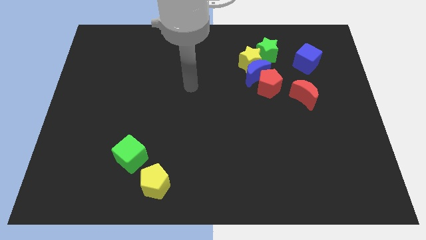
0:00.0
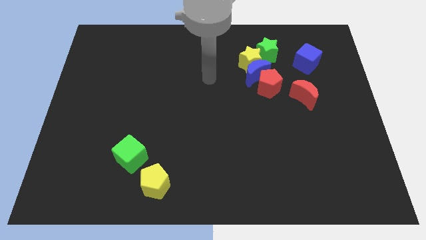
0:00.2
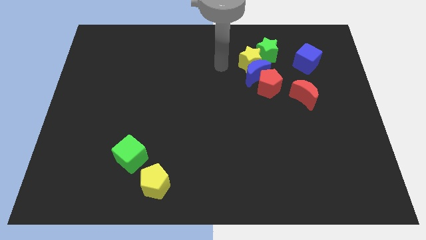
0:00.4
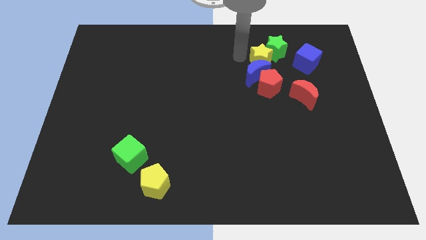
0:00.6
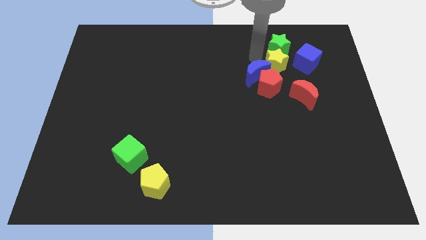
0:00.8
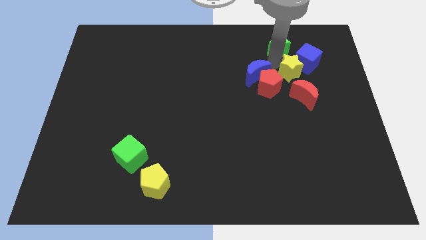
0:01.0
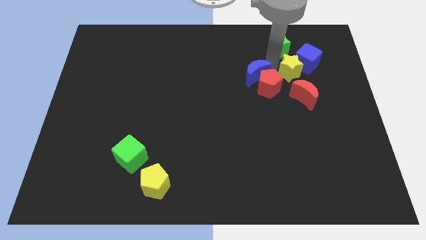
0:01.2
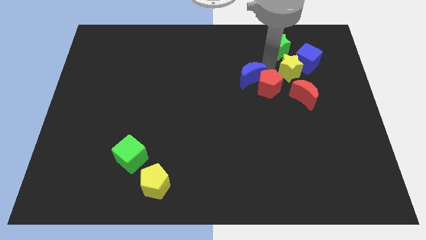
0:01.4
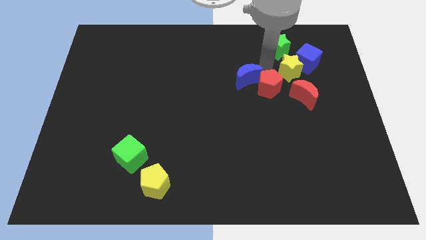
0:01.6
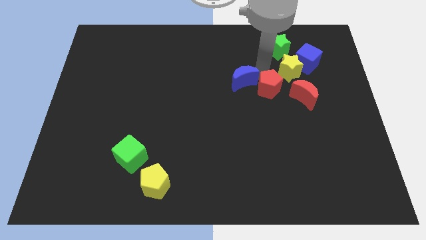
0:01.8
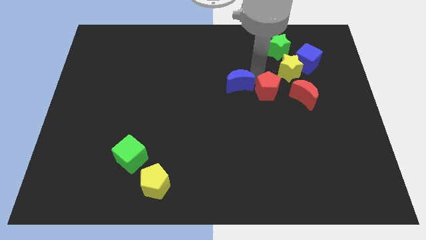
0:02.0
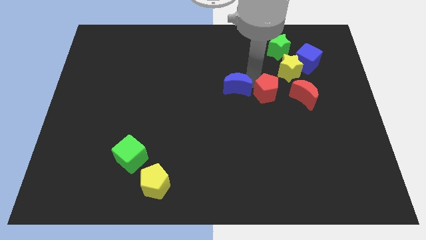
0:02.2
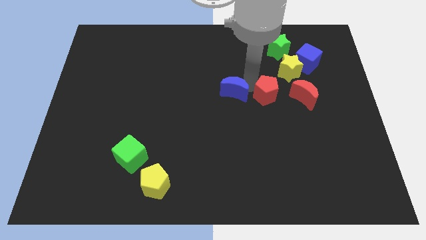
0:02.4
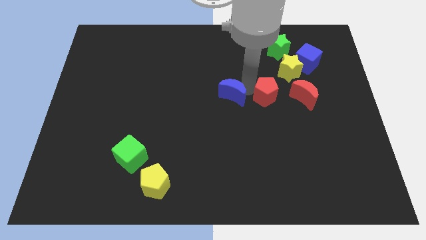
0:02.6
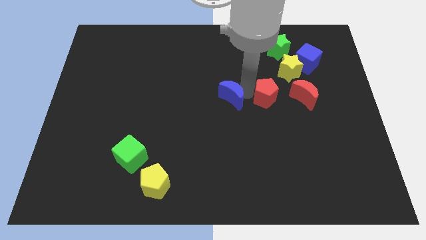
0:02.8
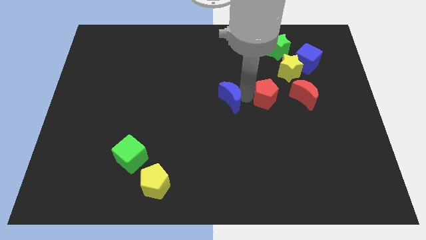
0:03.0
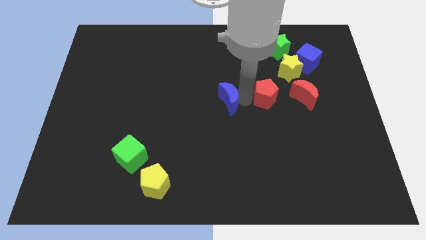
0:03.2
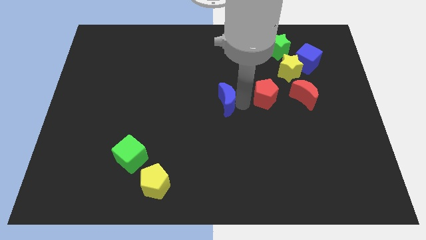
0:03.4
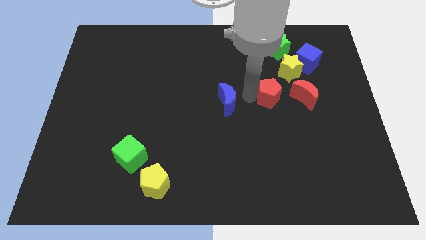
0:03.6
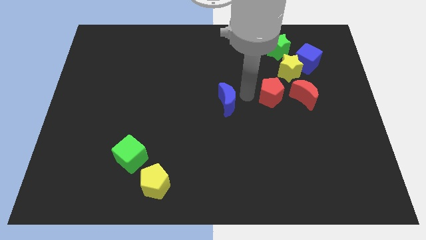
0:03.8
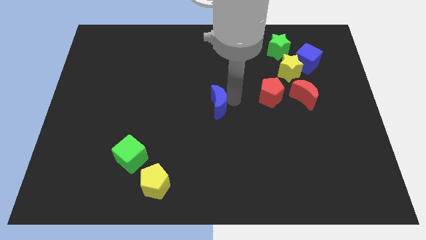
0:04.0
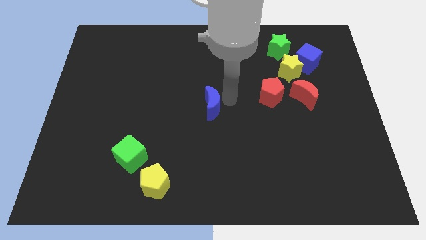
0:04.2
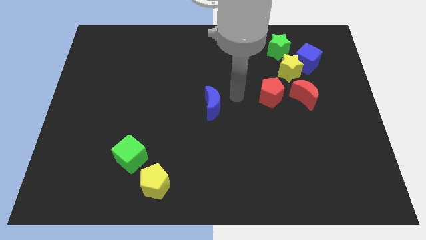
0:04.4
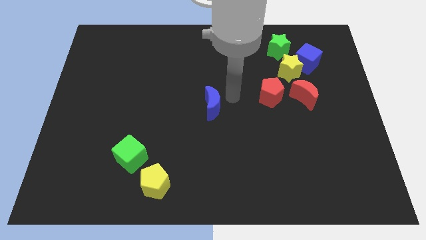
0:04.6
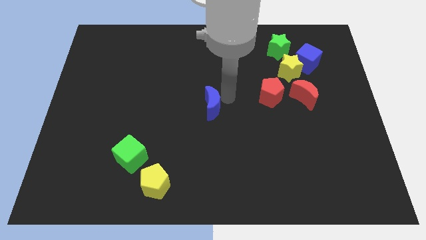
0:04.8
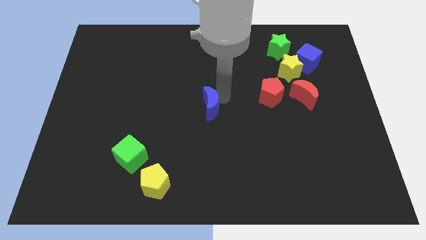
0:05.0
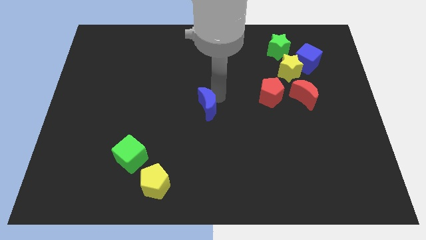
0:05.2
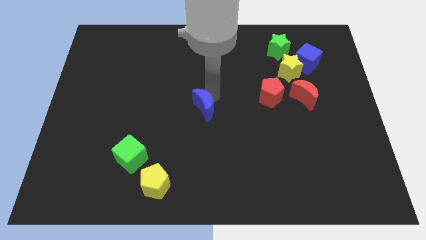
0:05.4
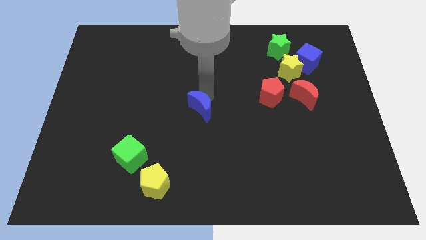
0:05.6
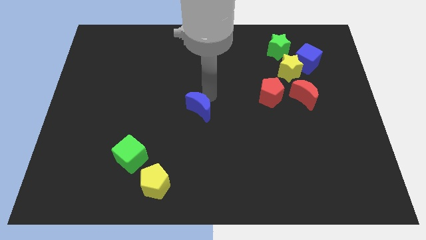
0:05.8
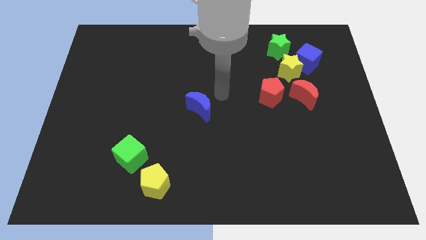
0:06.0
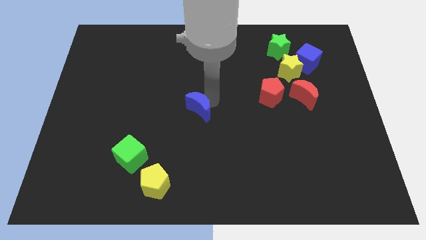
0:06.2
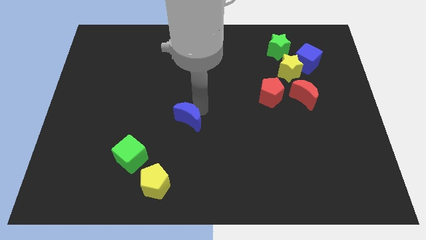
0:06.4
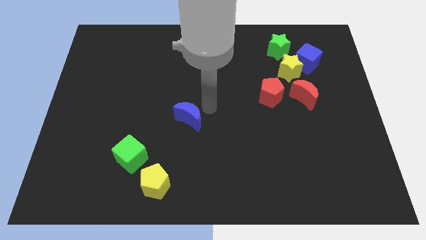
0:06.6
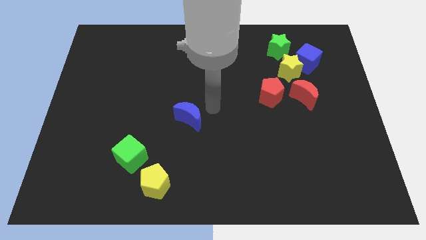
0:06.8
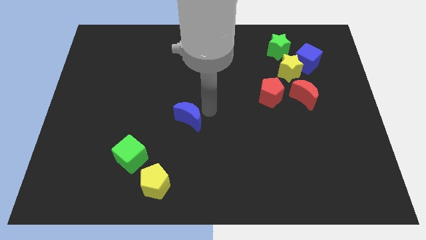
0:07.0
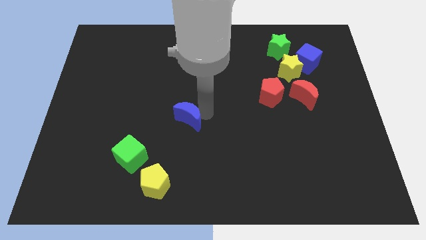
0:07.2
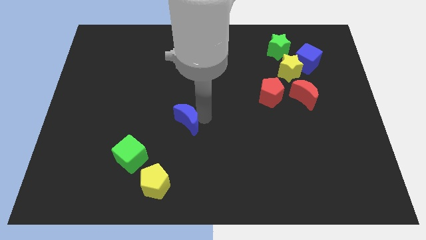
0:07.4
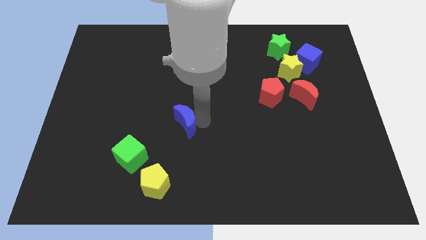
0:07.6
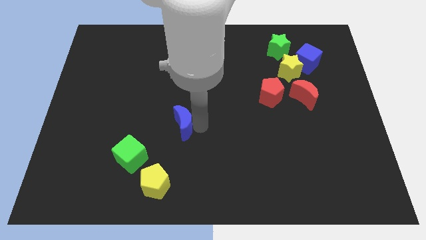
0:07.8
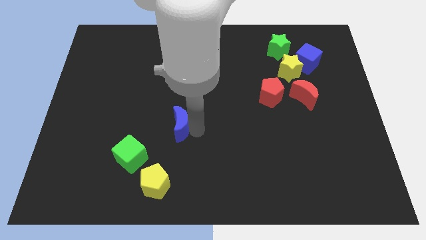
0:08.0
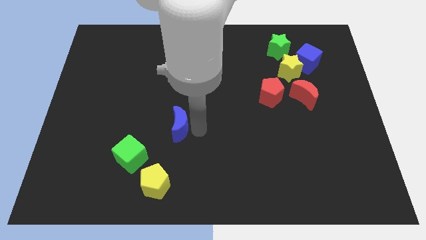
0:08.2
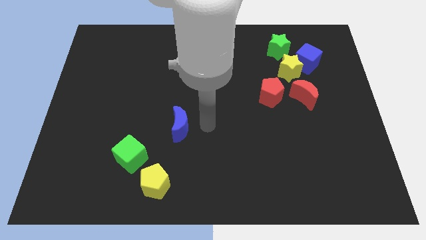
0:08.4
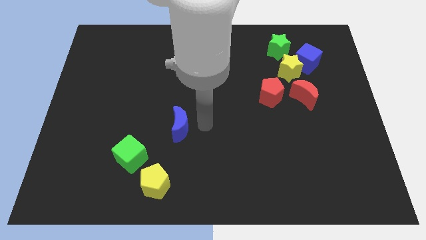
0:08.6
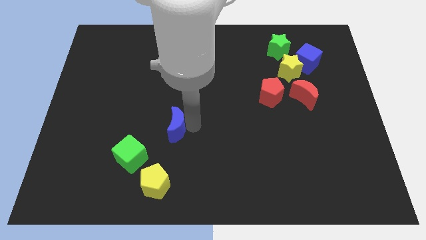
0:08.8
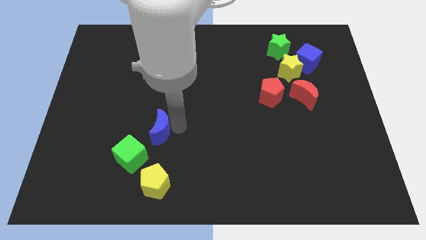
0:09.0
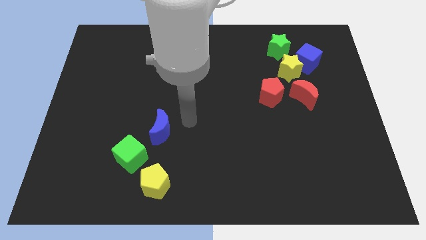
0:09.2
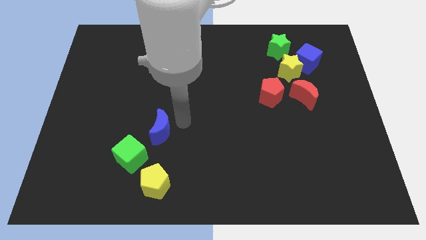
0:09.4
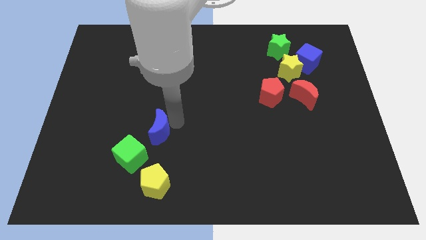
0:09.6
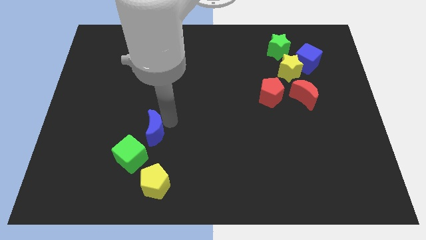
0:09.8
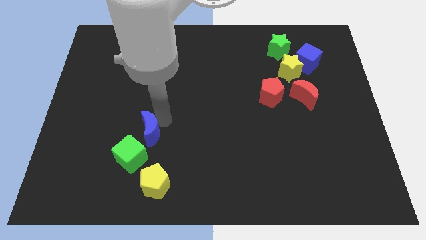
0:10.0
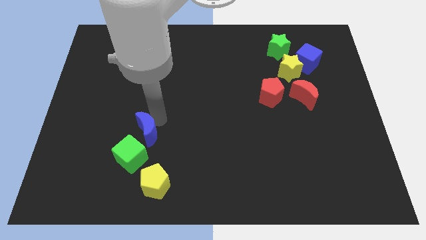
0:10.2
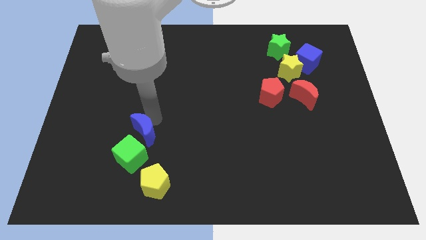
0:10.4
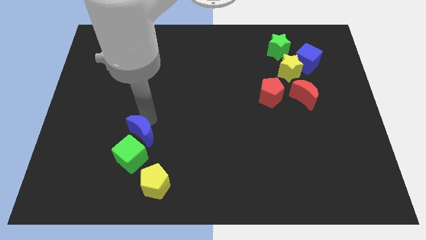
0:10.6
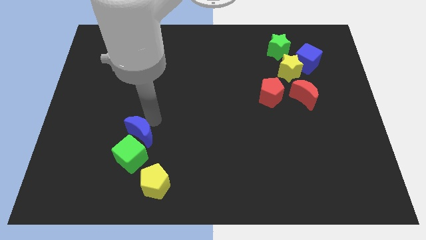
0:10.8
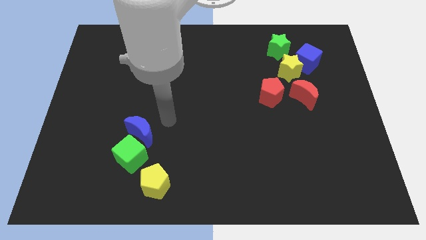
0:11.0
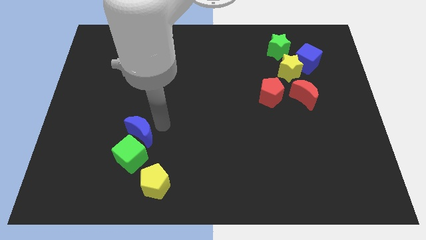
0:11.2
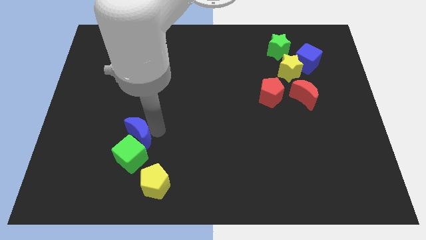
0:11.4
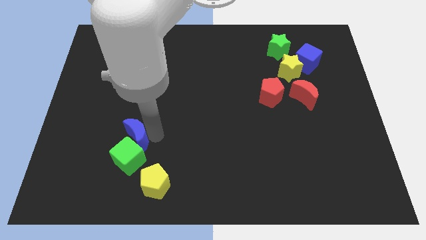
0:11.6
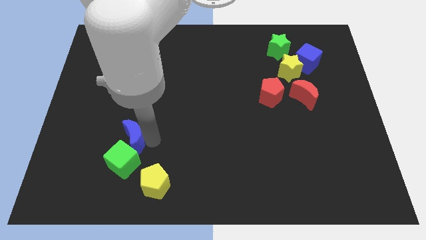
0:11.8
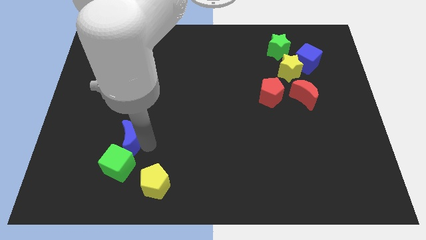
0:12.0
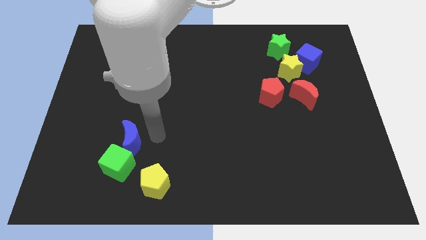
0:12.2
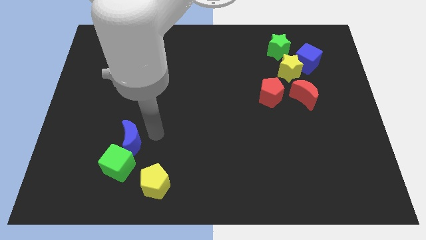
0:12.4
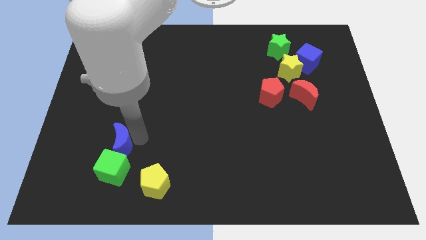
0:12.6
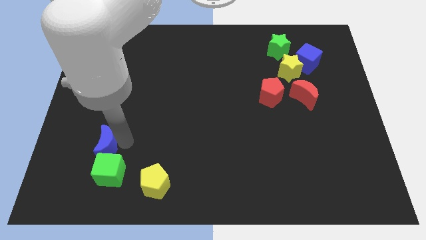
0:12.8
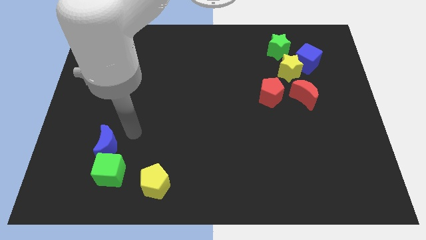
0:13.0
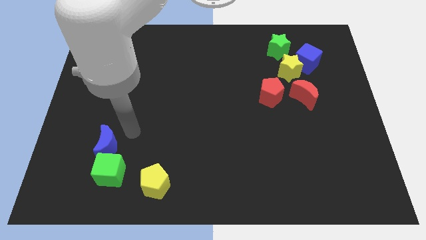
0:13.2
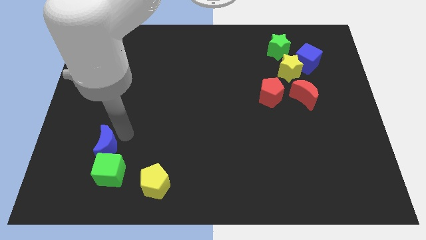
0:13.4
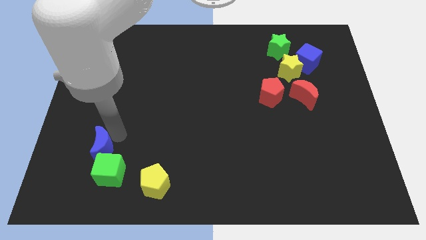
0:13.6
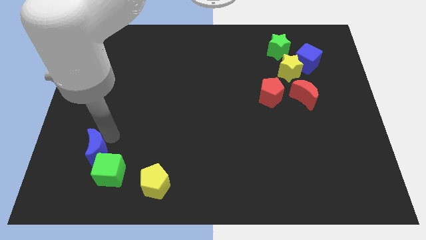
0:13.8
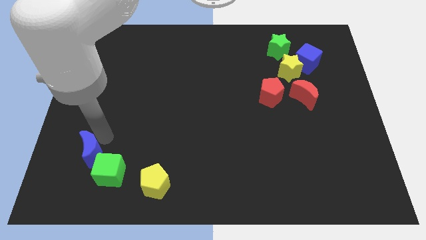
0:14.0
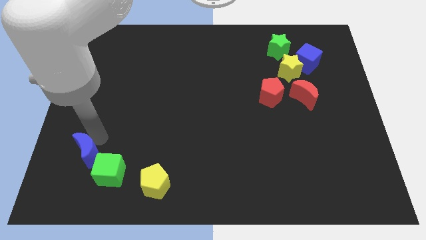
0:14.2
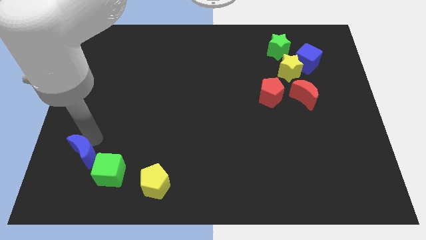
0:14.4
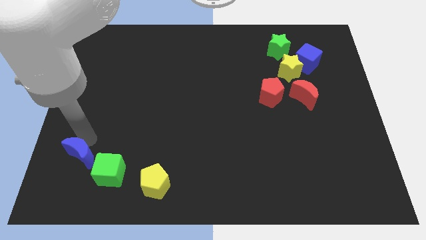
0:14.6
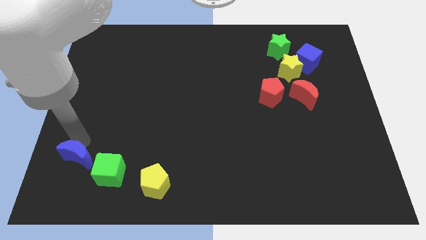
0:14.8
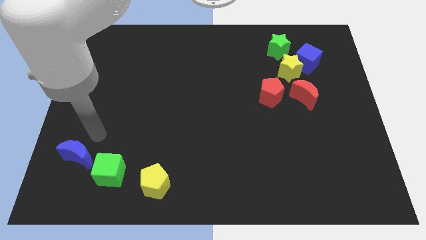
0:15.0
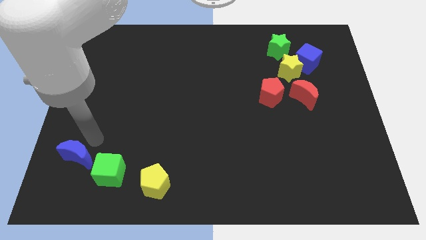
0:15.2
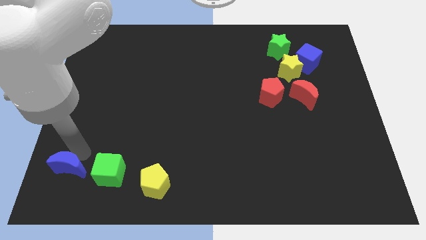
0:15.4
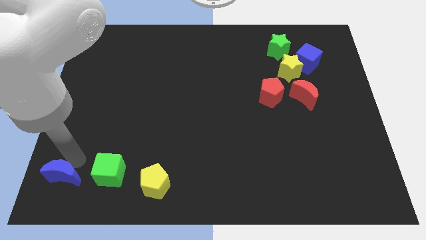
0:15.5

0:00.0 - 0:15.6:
put the blue moon to the bottom left of the board
